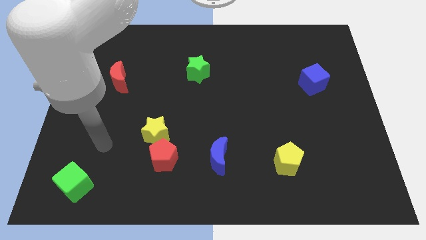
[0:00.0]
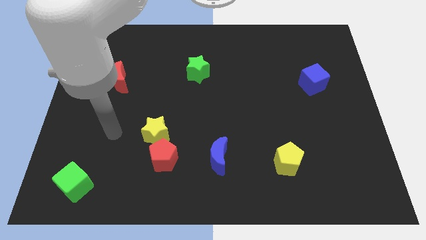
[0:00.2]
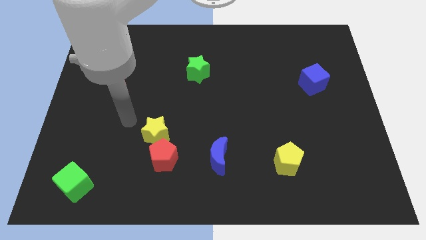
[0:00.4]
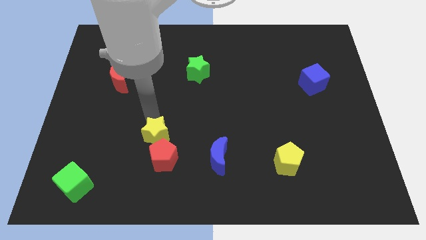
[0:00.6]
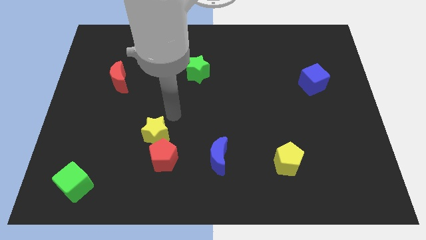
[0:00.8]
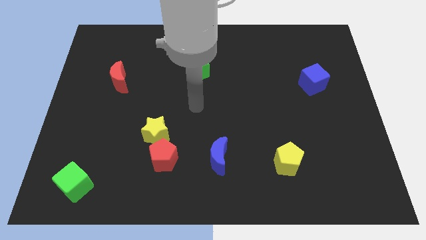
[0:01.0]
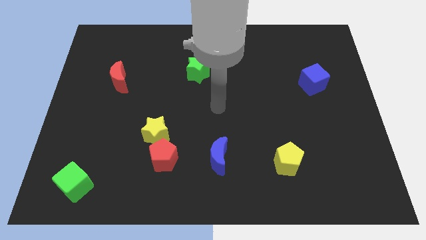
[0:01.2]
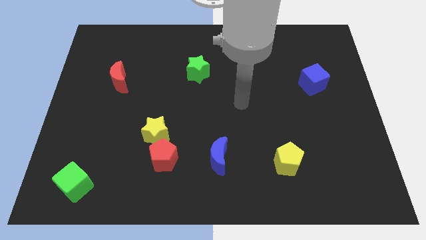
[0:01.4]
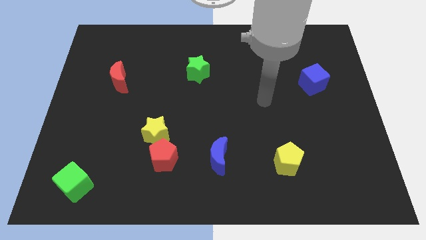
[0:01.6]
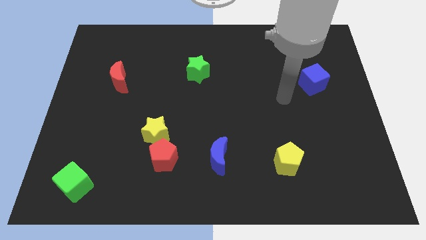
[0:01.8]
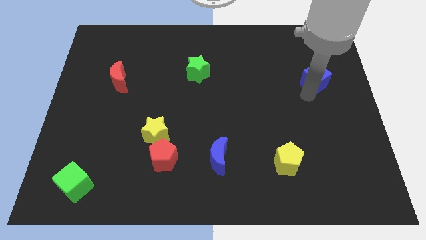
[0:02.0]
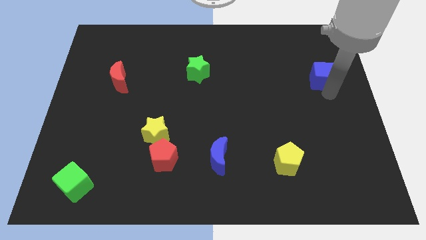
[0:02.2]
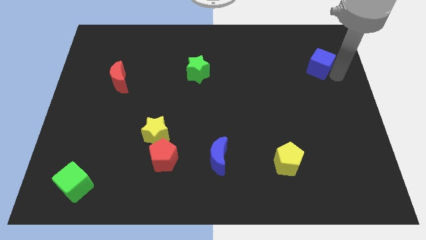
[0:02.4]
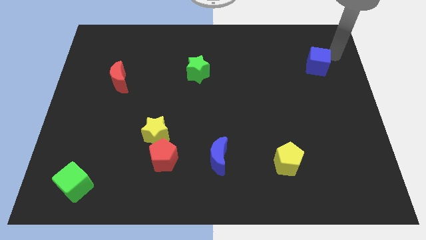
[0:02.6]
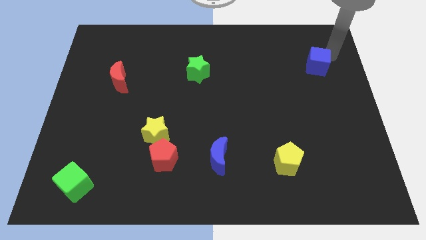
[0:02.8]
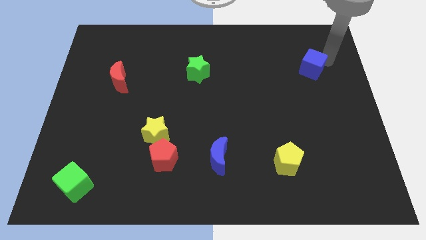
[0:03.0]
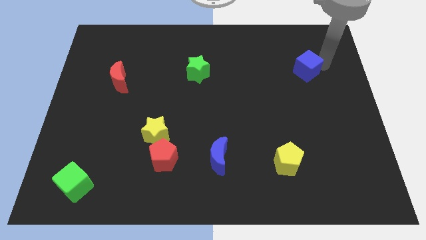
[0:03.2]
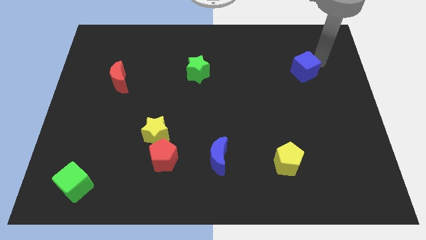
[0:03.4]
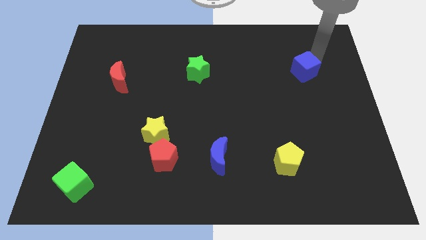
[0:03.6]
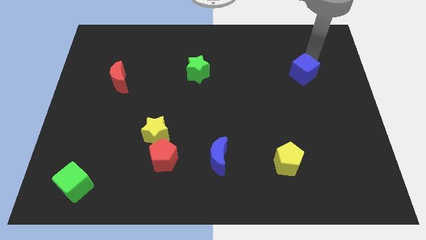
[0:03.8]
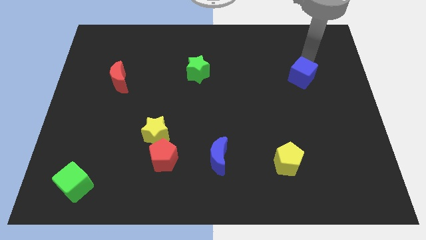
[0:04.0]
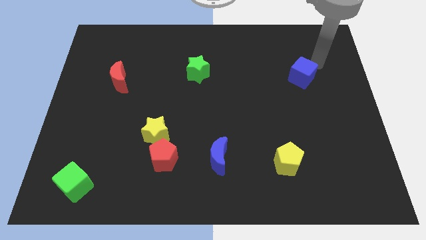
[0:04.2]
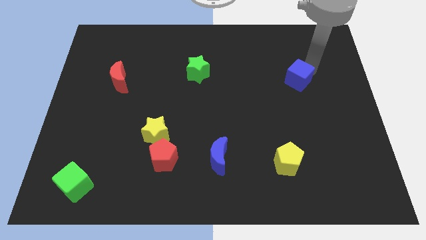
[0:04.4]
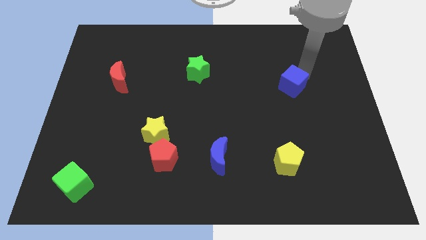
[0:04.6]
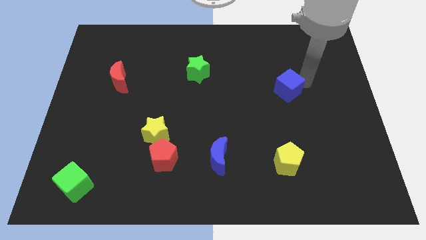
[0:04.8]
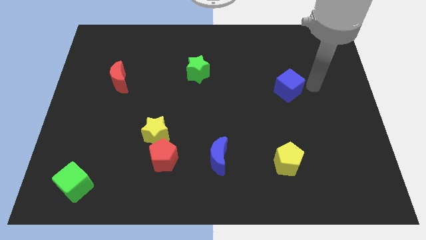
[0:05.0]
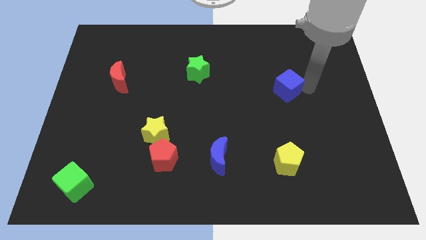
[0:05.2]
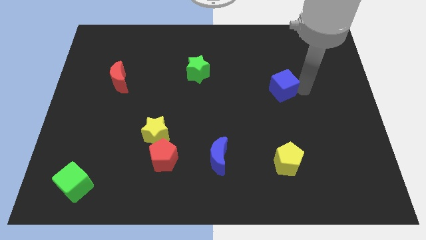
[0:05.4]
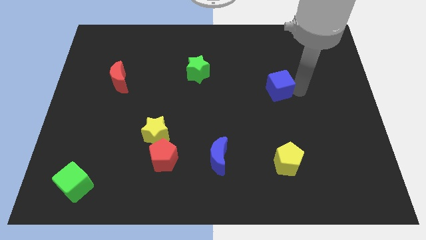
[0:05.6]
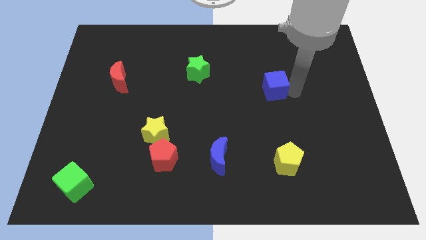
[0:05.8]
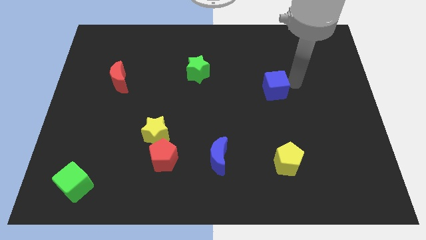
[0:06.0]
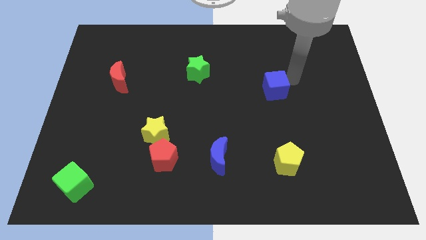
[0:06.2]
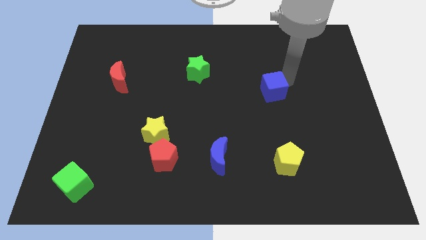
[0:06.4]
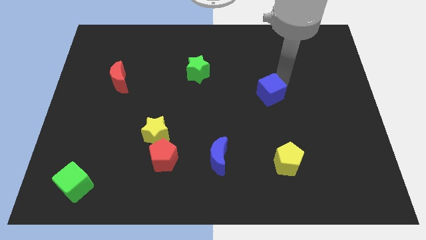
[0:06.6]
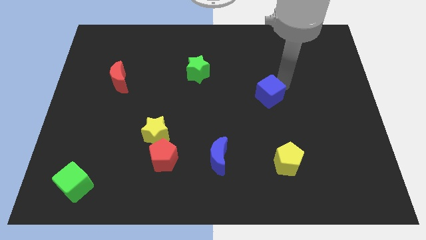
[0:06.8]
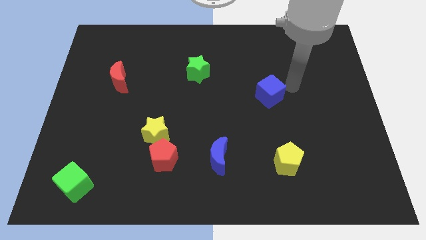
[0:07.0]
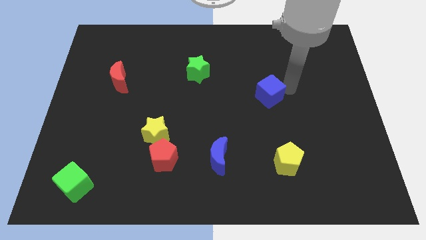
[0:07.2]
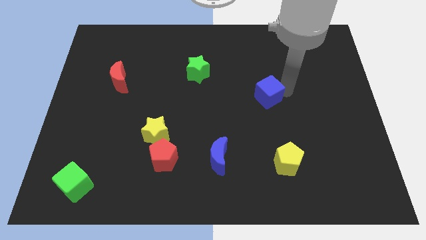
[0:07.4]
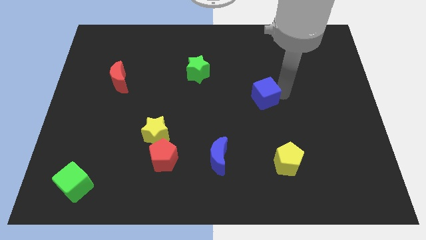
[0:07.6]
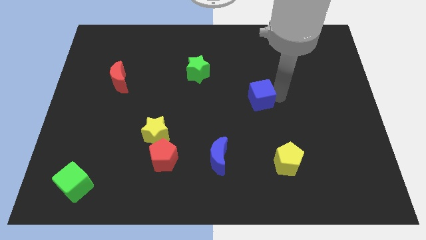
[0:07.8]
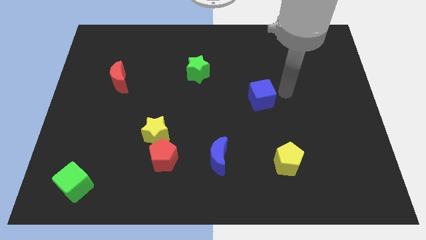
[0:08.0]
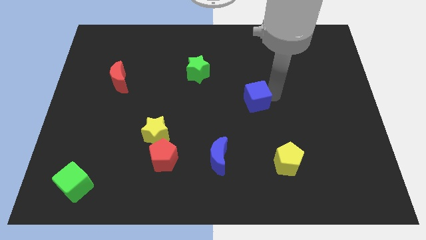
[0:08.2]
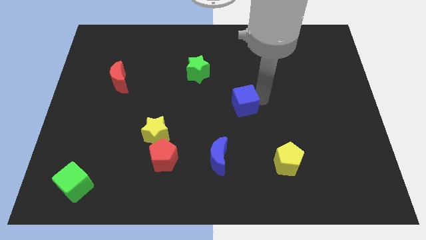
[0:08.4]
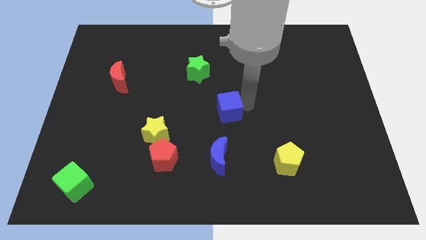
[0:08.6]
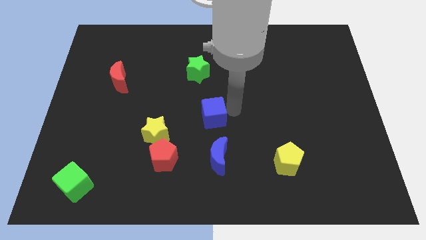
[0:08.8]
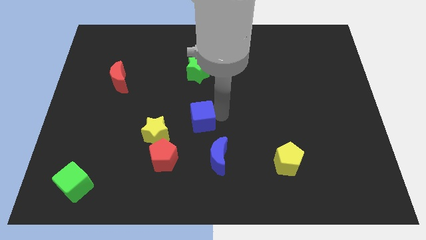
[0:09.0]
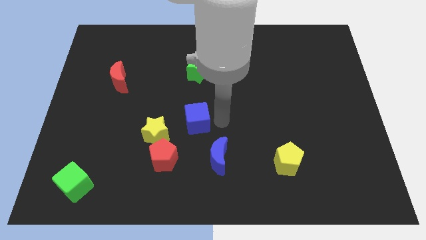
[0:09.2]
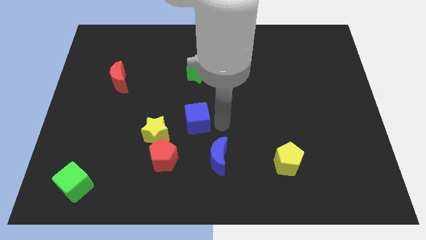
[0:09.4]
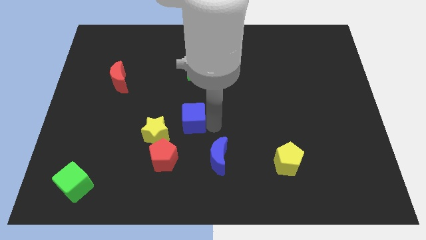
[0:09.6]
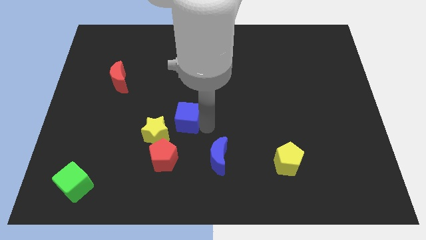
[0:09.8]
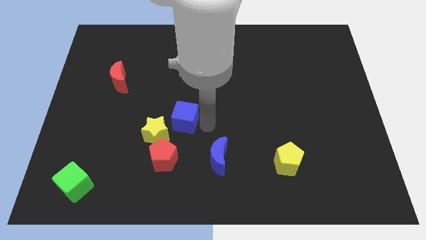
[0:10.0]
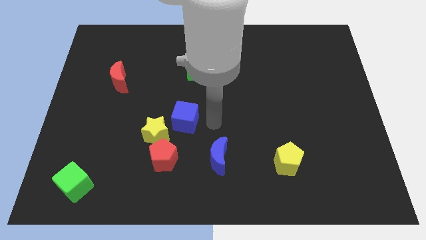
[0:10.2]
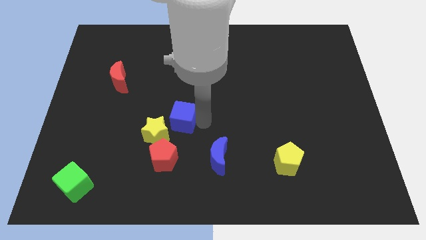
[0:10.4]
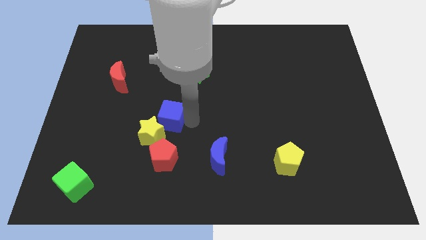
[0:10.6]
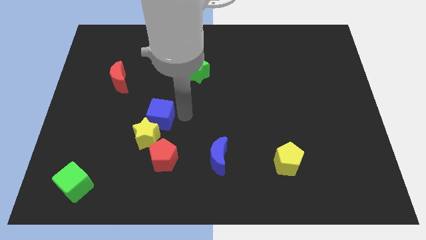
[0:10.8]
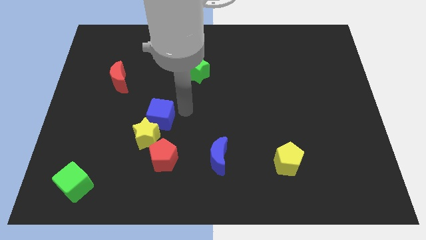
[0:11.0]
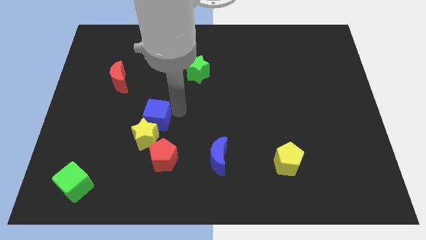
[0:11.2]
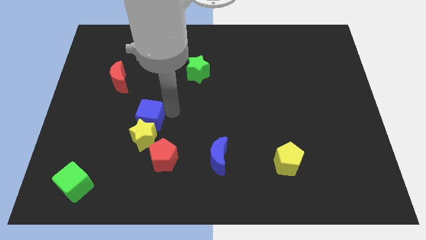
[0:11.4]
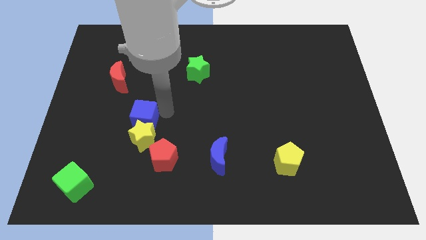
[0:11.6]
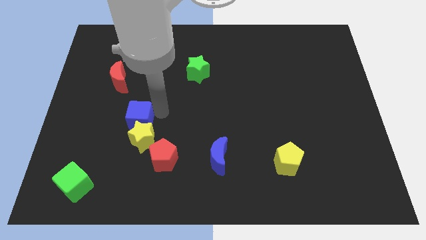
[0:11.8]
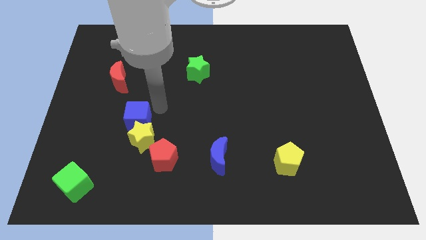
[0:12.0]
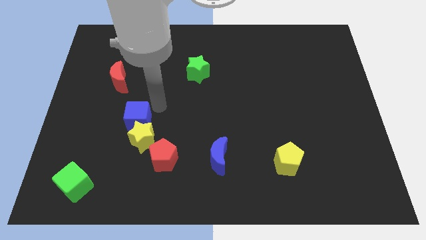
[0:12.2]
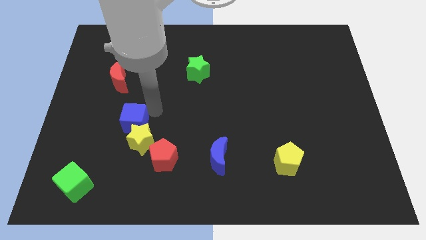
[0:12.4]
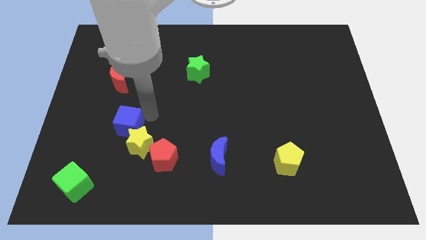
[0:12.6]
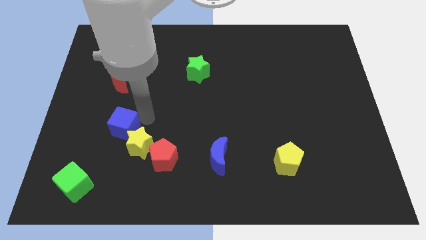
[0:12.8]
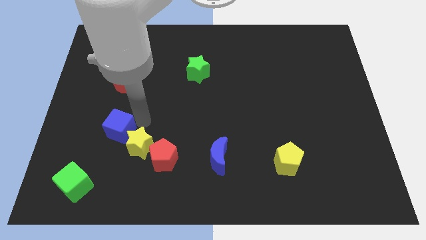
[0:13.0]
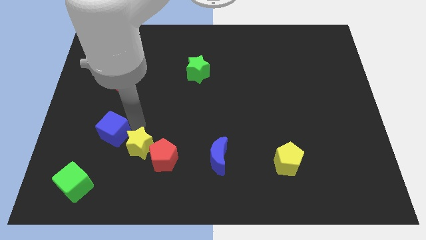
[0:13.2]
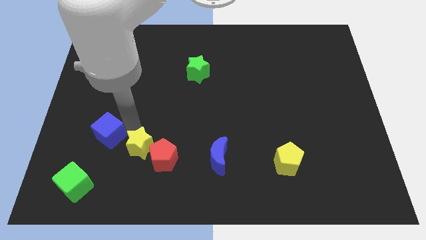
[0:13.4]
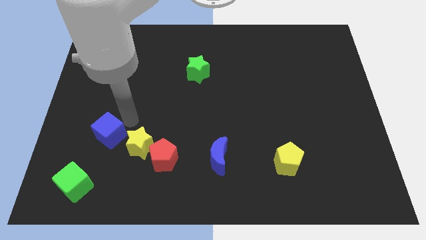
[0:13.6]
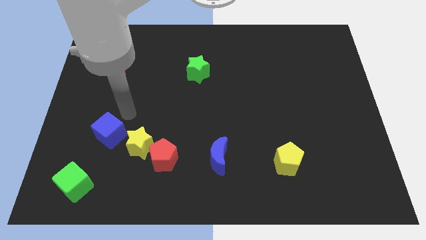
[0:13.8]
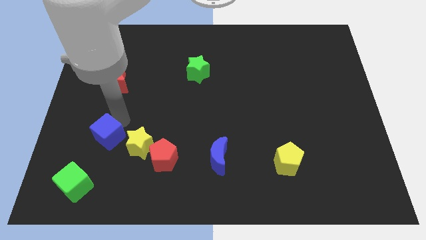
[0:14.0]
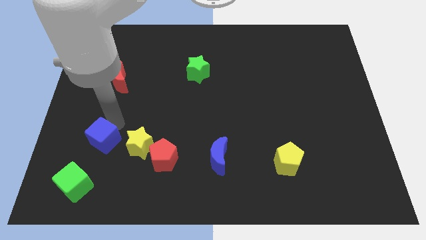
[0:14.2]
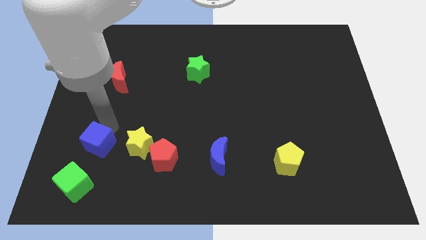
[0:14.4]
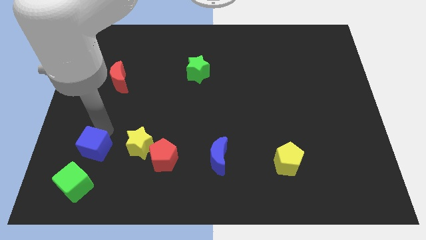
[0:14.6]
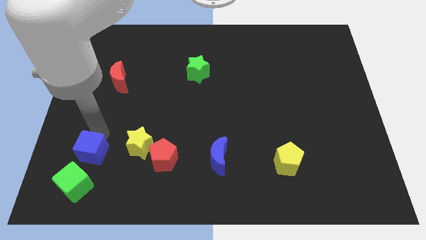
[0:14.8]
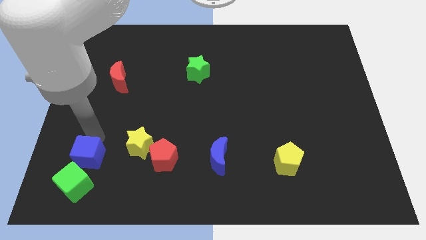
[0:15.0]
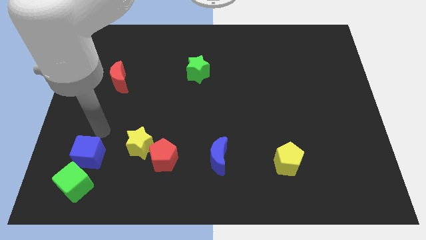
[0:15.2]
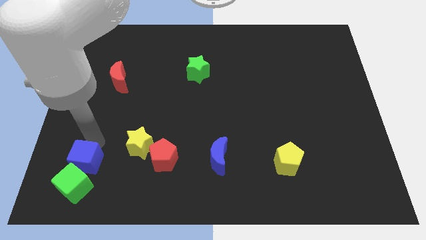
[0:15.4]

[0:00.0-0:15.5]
slide the blue cube next to the green cube
